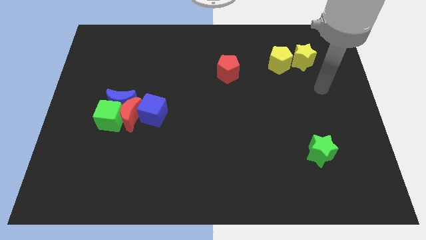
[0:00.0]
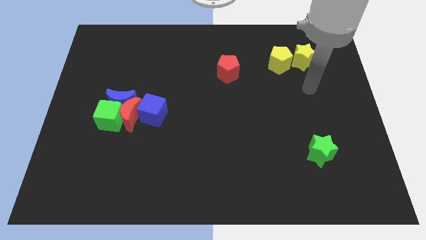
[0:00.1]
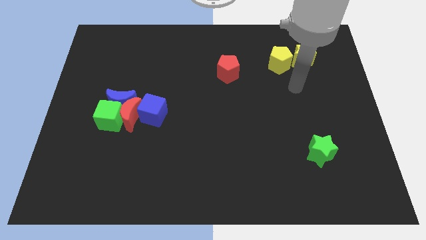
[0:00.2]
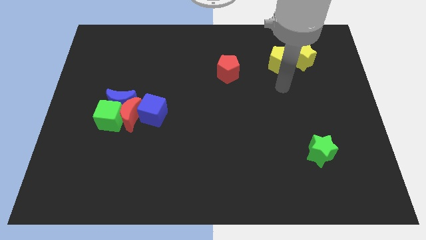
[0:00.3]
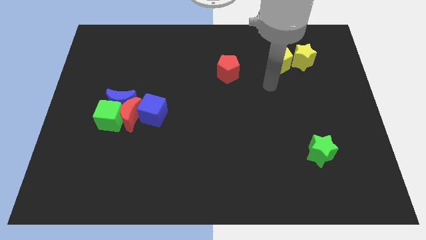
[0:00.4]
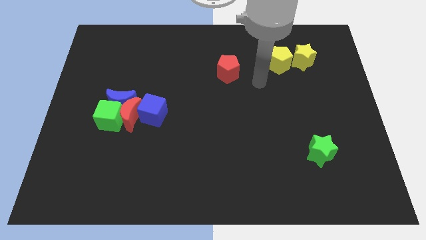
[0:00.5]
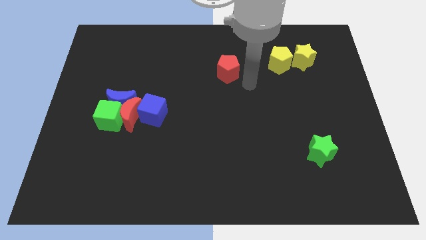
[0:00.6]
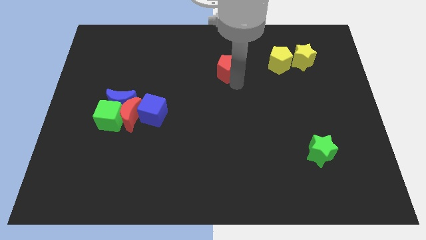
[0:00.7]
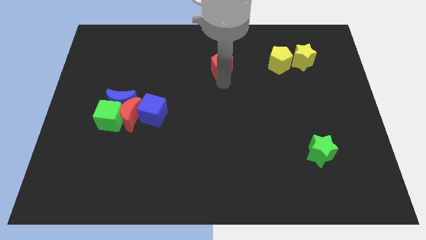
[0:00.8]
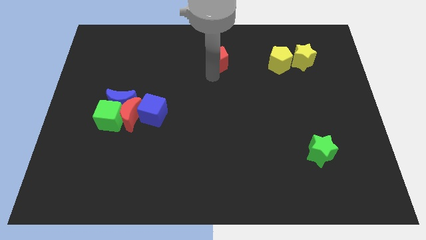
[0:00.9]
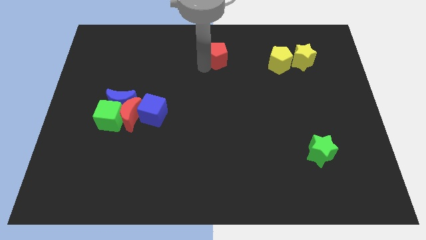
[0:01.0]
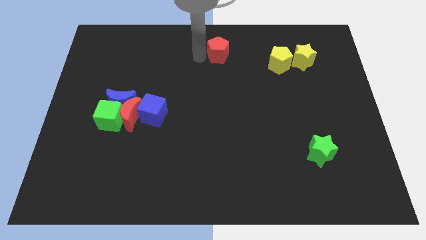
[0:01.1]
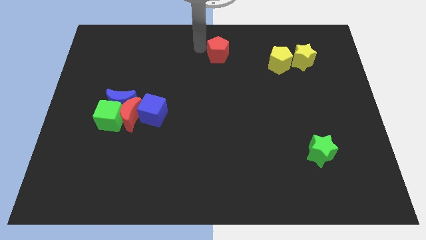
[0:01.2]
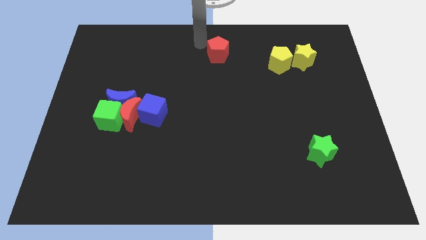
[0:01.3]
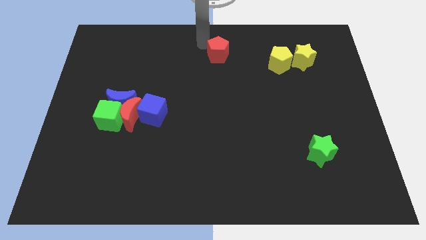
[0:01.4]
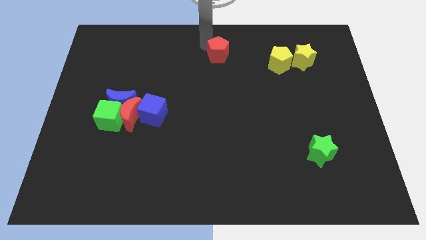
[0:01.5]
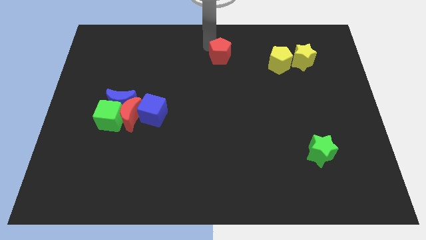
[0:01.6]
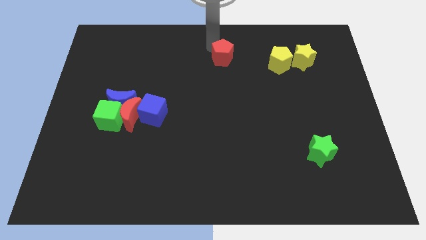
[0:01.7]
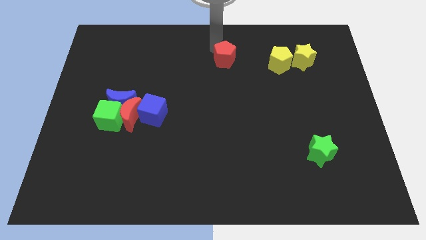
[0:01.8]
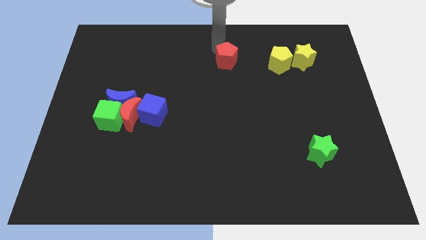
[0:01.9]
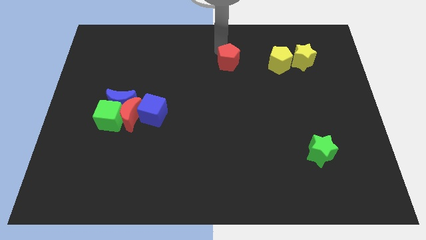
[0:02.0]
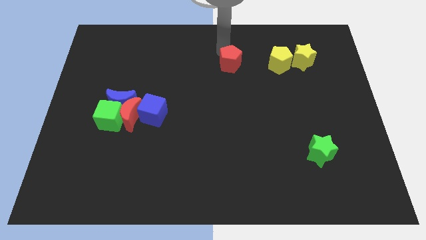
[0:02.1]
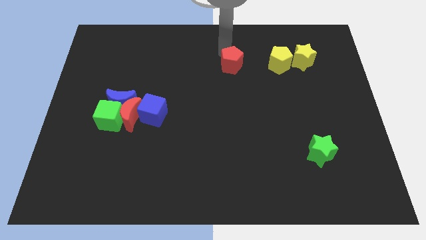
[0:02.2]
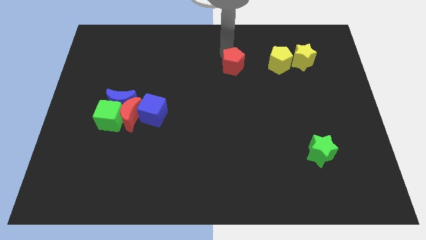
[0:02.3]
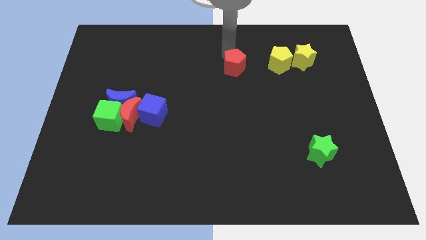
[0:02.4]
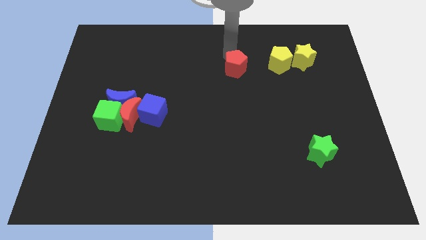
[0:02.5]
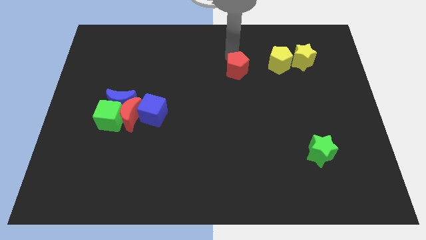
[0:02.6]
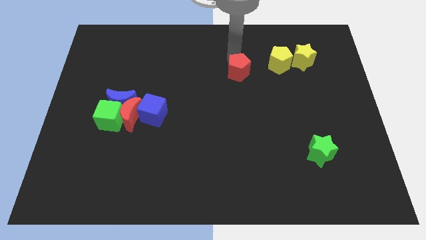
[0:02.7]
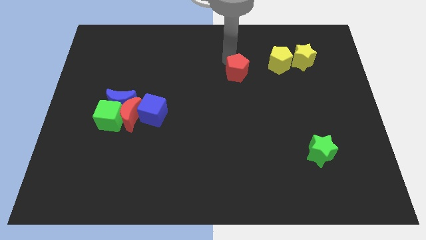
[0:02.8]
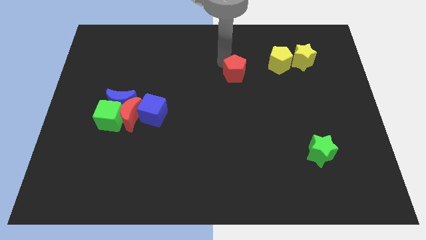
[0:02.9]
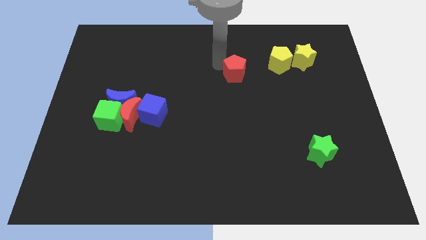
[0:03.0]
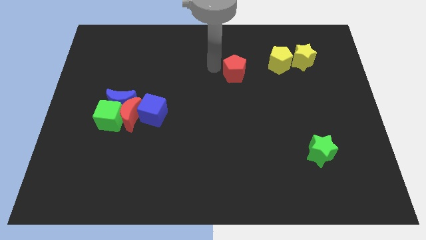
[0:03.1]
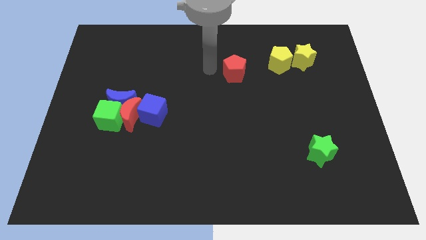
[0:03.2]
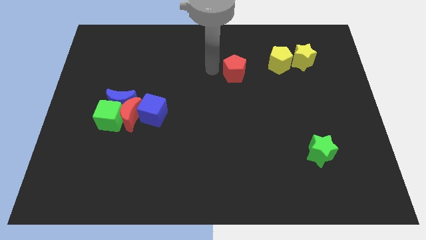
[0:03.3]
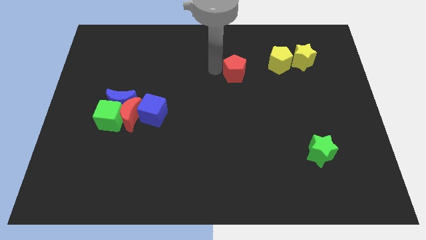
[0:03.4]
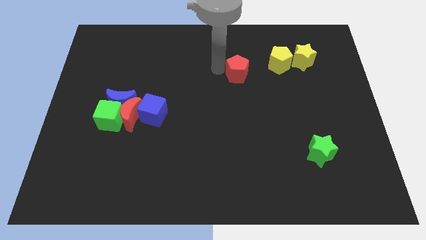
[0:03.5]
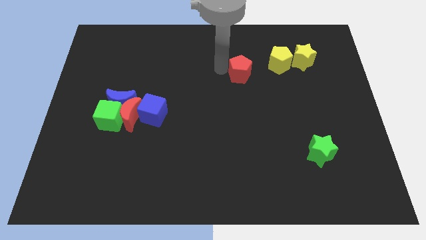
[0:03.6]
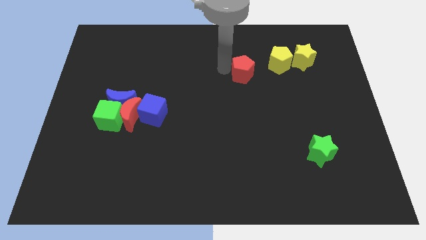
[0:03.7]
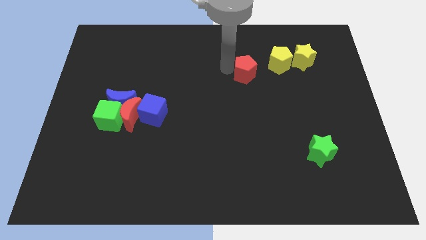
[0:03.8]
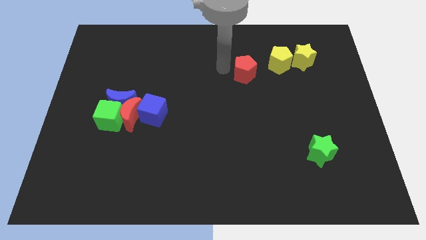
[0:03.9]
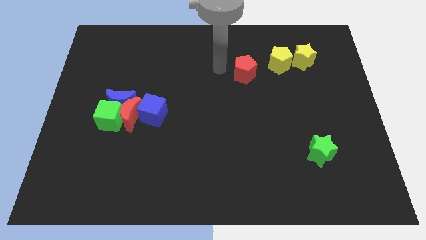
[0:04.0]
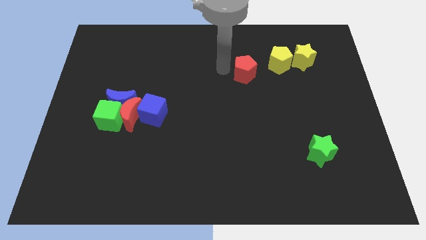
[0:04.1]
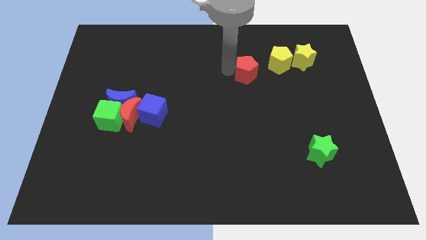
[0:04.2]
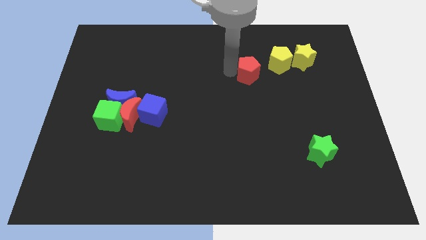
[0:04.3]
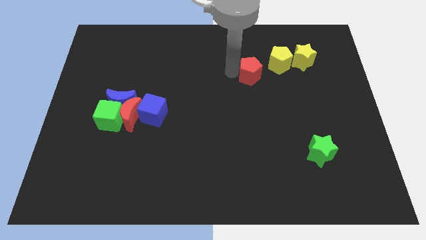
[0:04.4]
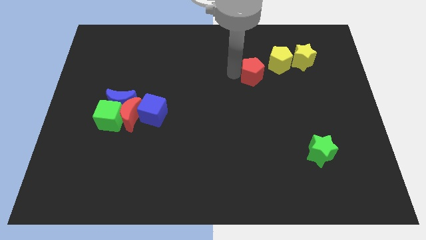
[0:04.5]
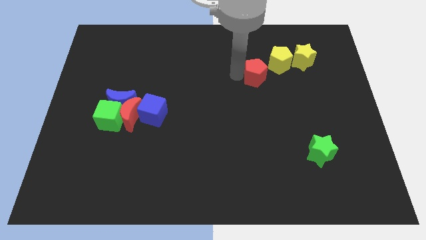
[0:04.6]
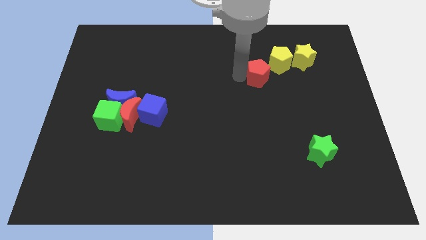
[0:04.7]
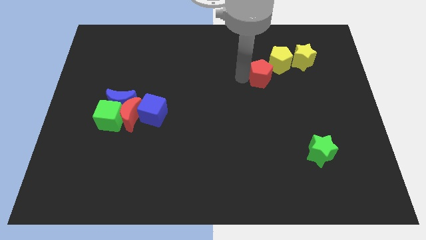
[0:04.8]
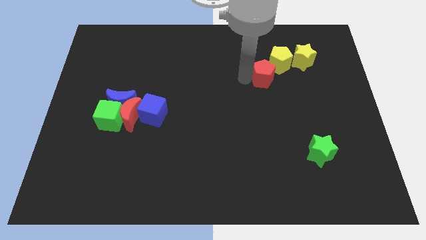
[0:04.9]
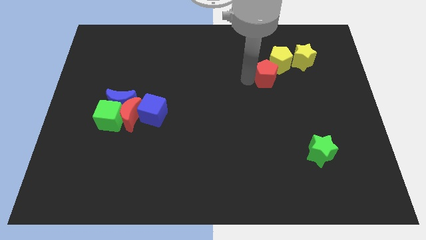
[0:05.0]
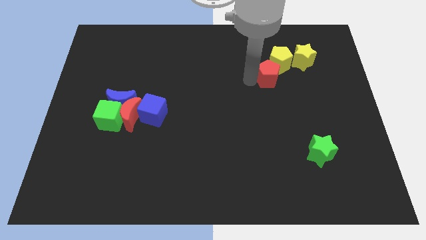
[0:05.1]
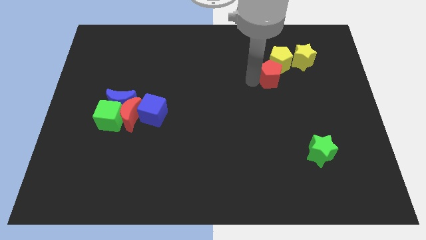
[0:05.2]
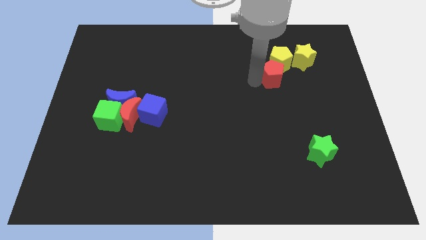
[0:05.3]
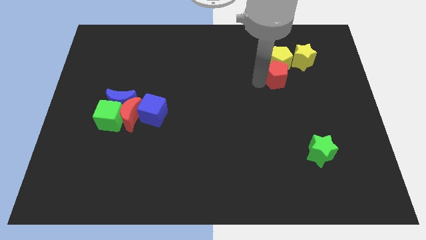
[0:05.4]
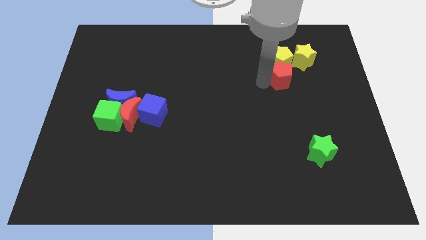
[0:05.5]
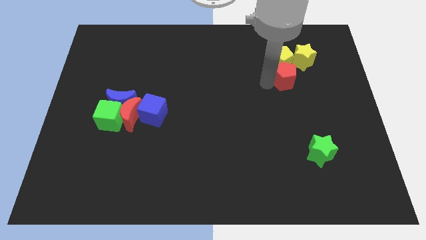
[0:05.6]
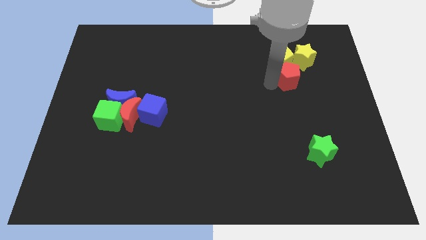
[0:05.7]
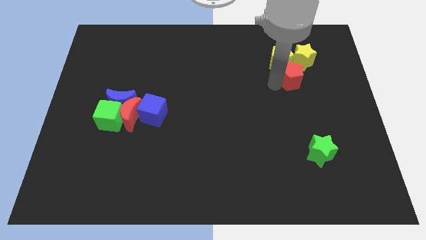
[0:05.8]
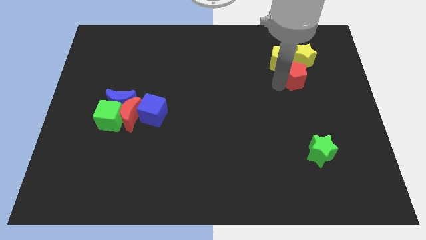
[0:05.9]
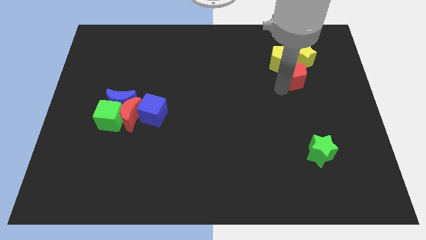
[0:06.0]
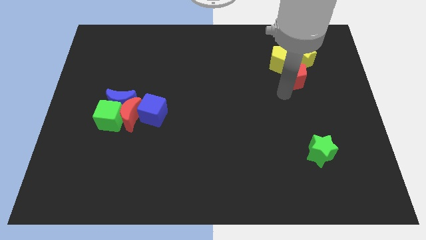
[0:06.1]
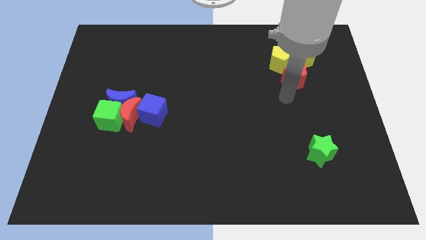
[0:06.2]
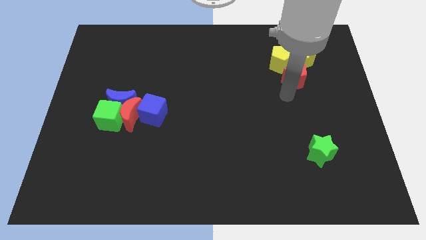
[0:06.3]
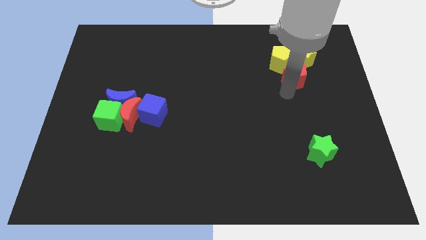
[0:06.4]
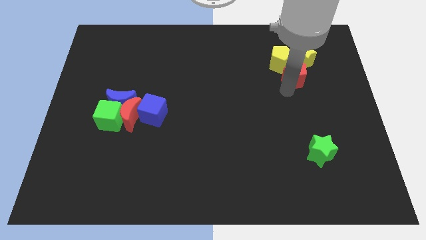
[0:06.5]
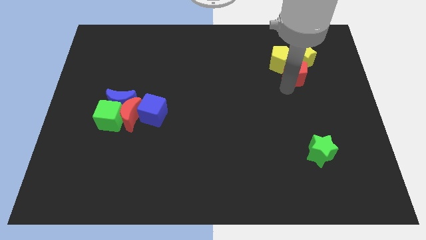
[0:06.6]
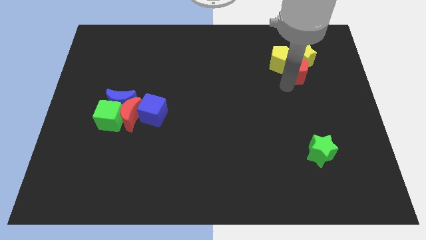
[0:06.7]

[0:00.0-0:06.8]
put the red pentagon to the yellow star
